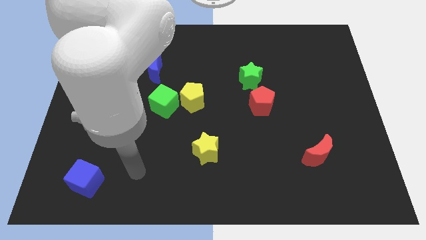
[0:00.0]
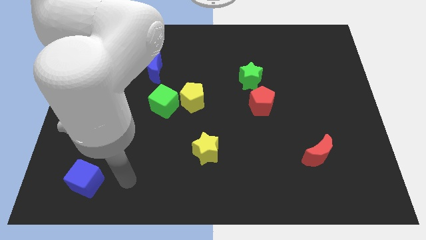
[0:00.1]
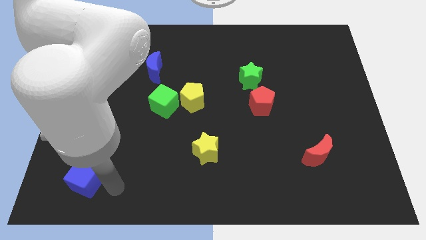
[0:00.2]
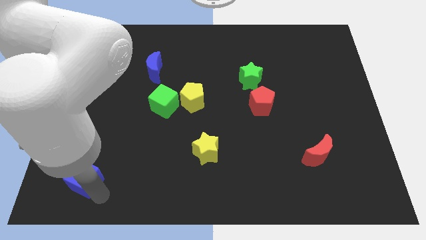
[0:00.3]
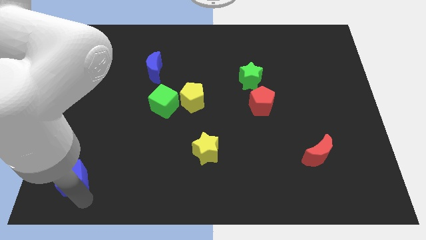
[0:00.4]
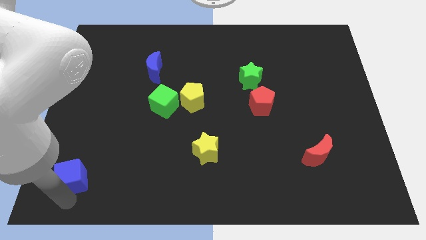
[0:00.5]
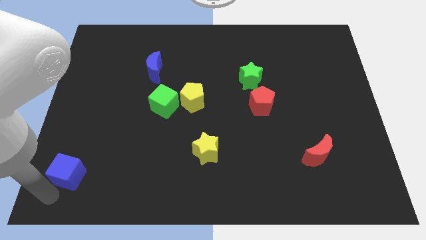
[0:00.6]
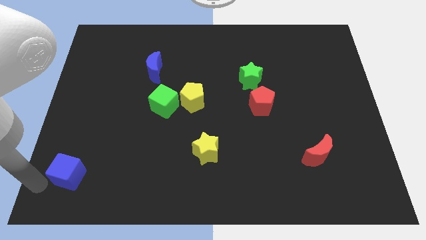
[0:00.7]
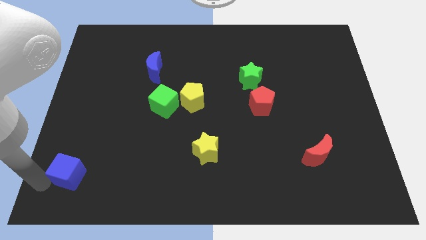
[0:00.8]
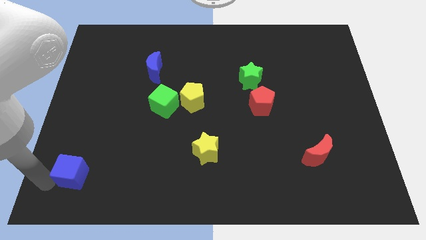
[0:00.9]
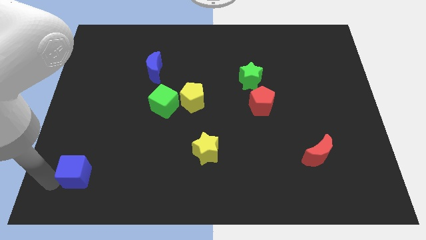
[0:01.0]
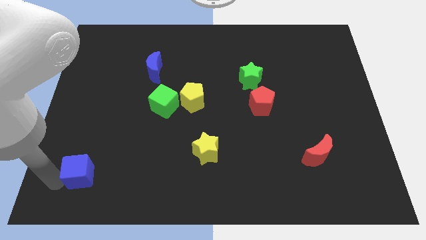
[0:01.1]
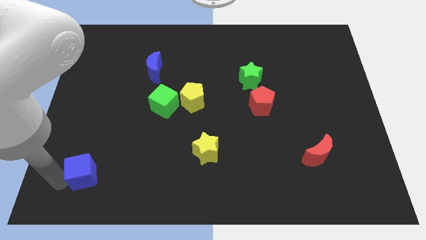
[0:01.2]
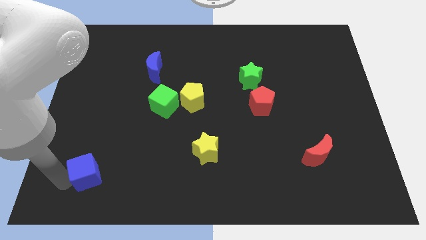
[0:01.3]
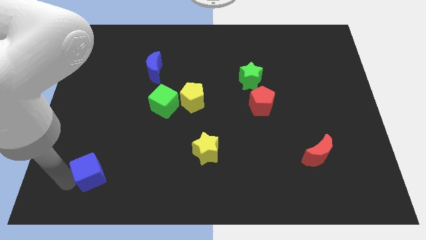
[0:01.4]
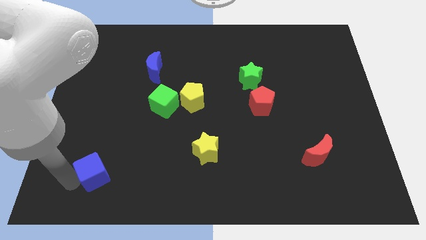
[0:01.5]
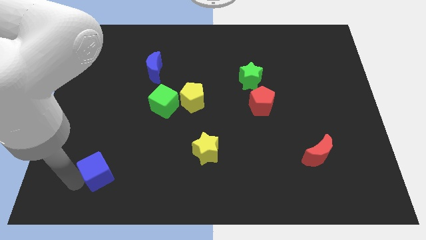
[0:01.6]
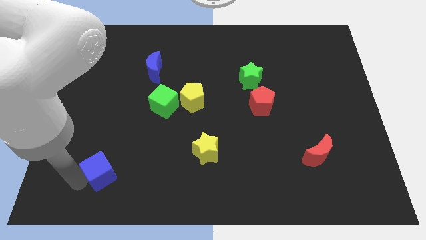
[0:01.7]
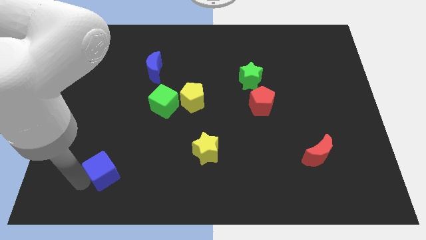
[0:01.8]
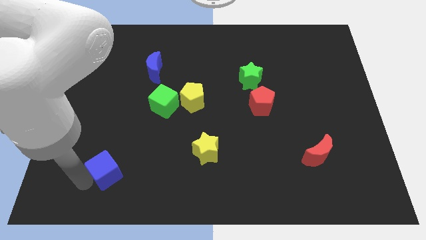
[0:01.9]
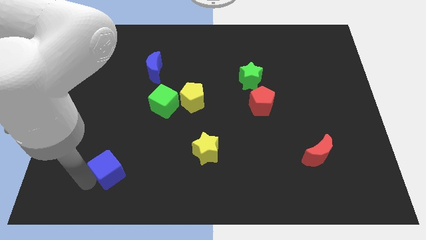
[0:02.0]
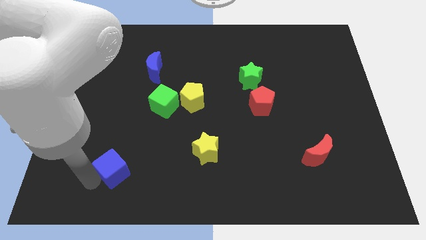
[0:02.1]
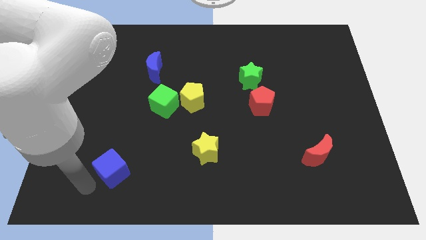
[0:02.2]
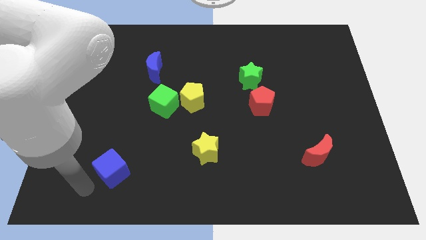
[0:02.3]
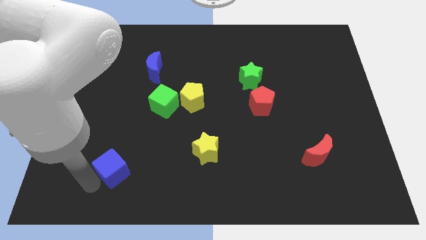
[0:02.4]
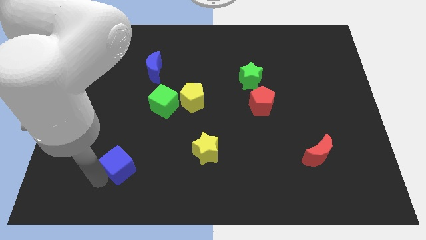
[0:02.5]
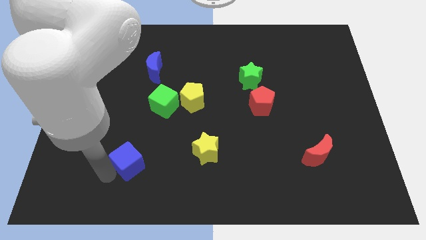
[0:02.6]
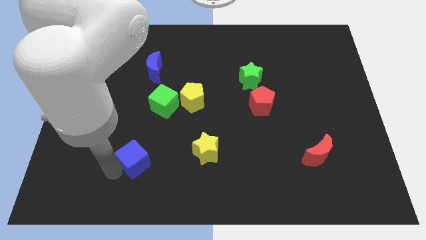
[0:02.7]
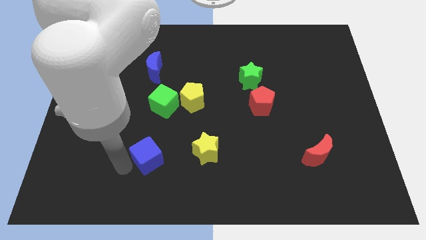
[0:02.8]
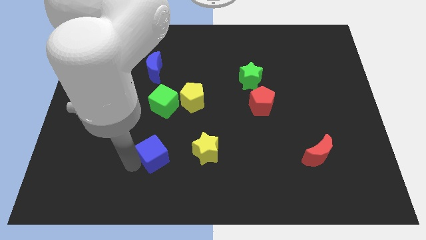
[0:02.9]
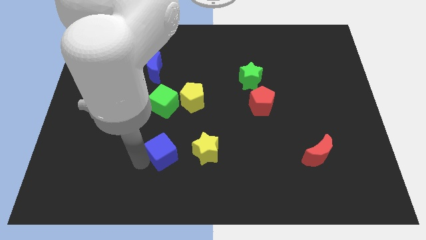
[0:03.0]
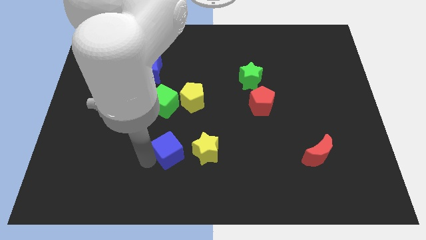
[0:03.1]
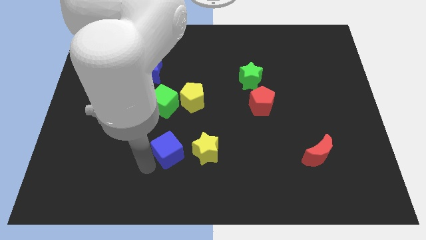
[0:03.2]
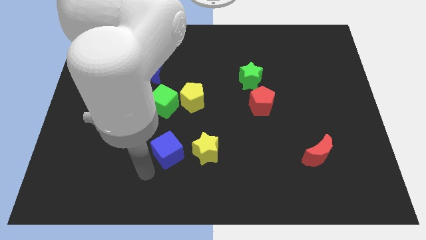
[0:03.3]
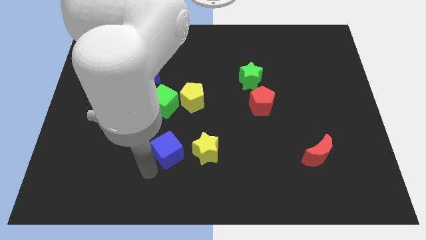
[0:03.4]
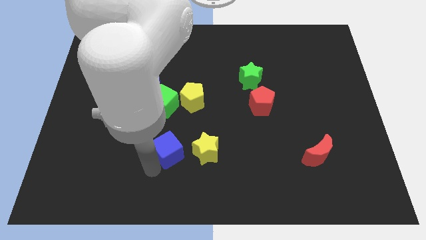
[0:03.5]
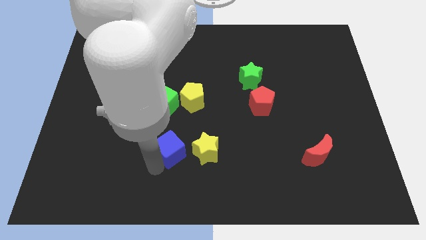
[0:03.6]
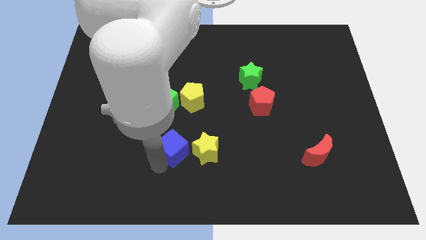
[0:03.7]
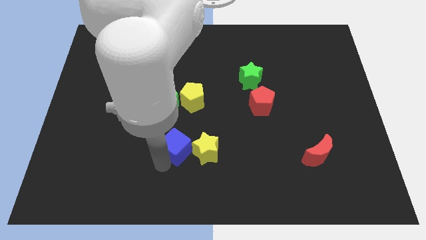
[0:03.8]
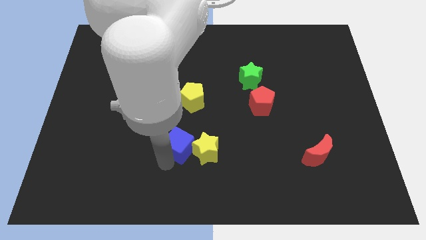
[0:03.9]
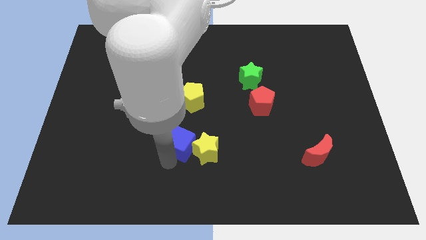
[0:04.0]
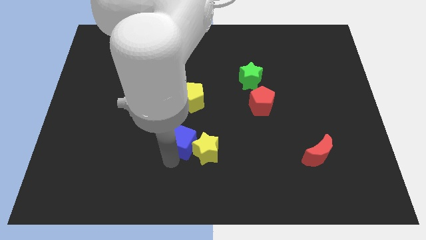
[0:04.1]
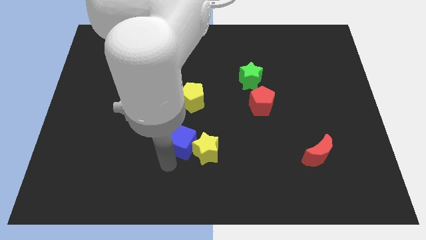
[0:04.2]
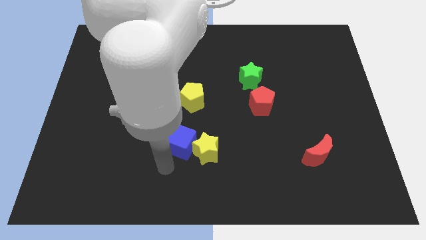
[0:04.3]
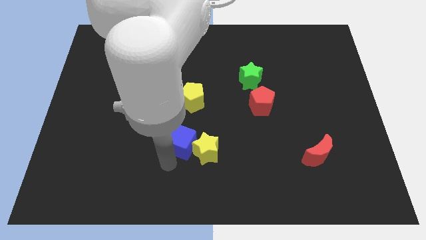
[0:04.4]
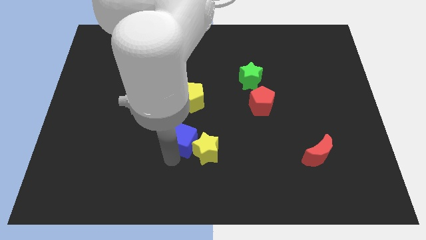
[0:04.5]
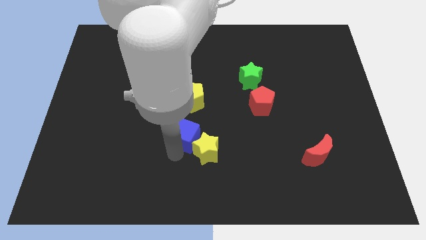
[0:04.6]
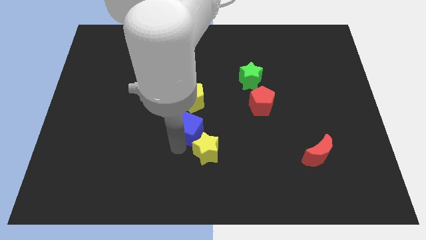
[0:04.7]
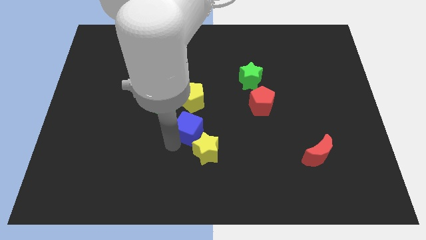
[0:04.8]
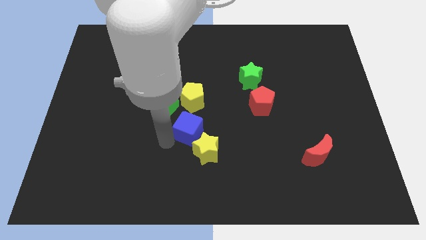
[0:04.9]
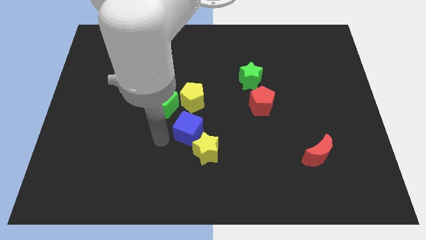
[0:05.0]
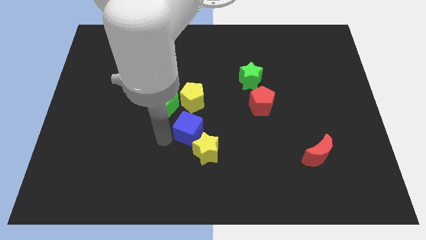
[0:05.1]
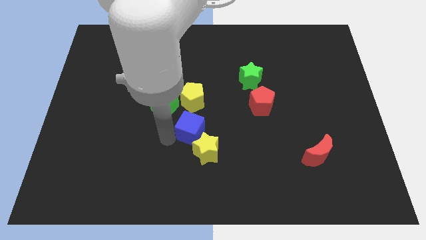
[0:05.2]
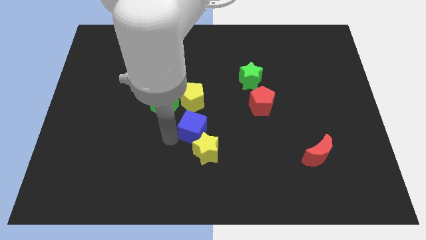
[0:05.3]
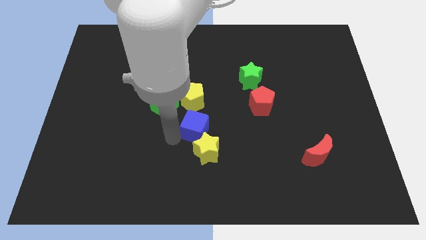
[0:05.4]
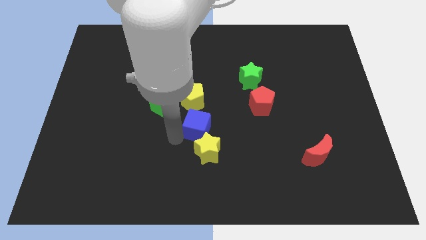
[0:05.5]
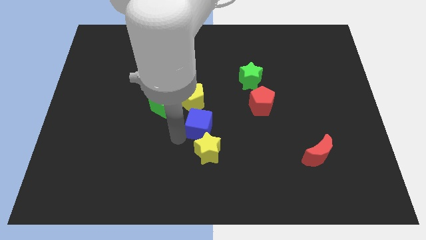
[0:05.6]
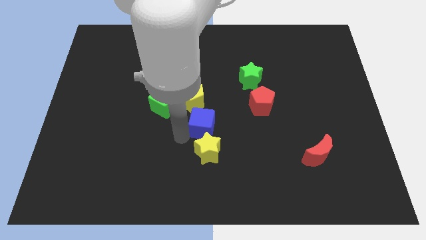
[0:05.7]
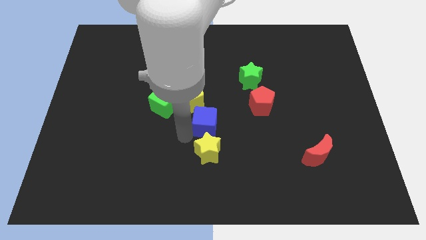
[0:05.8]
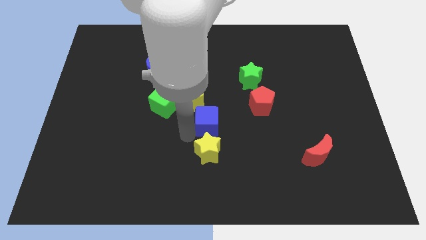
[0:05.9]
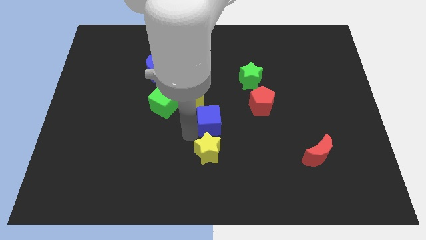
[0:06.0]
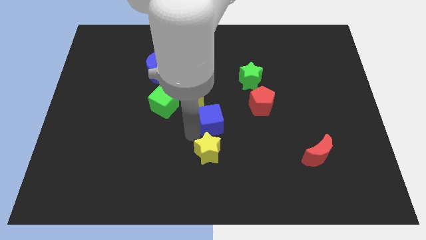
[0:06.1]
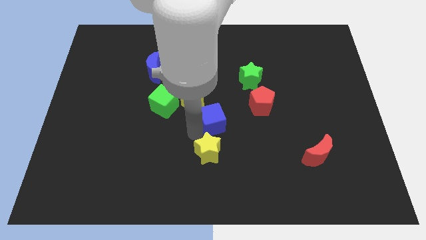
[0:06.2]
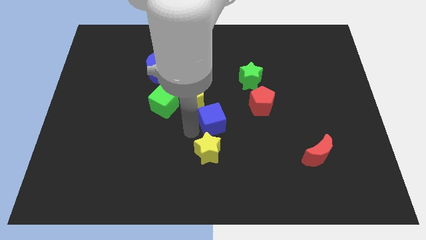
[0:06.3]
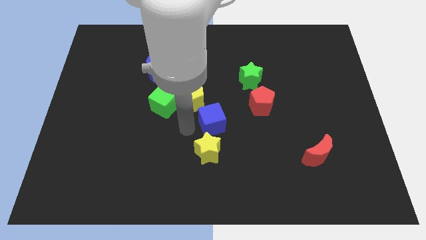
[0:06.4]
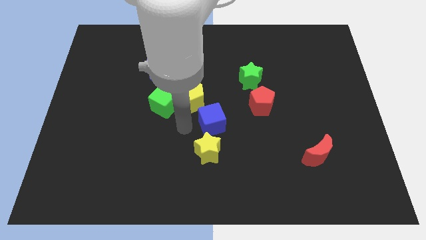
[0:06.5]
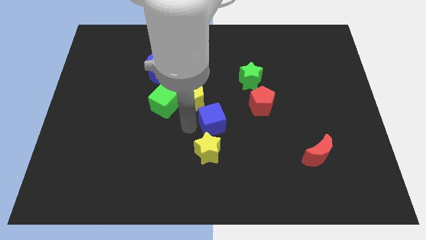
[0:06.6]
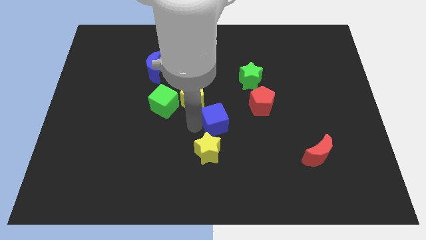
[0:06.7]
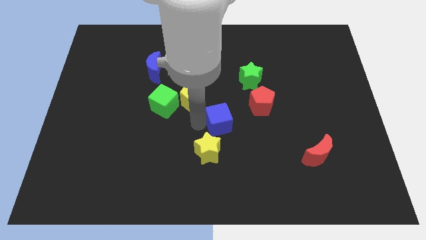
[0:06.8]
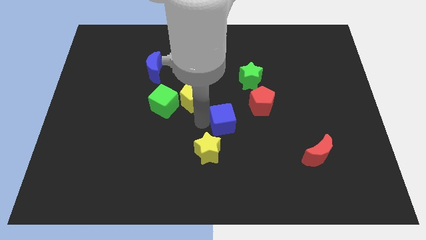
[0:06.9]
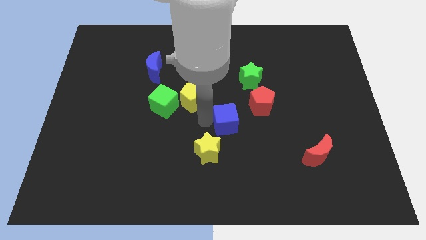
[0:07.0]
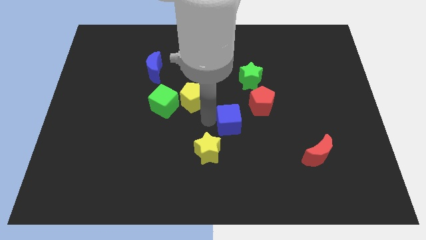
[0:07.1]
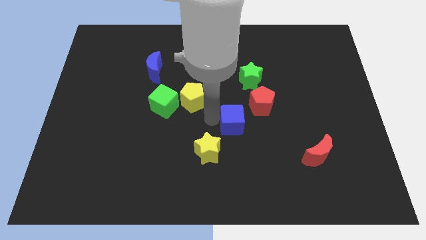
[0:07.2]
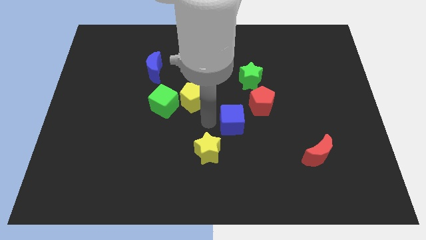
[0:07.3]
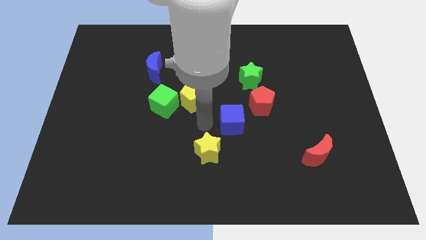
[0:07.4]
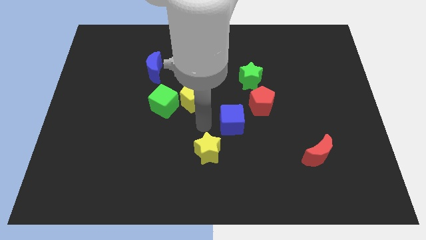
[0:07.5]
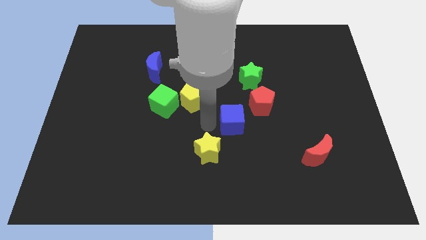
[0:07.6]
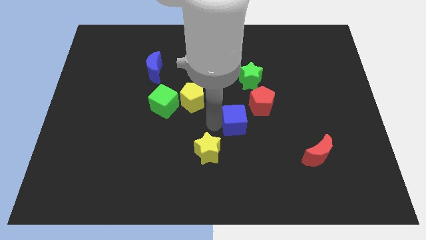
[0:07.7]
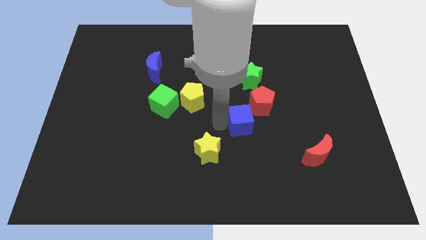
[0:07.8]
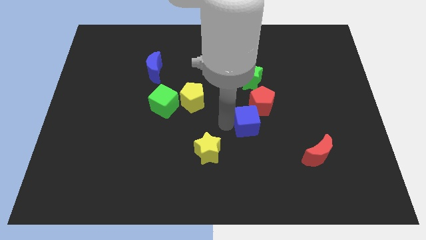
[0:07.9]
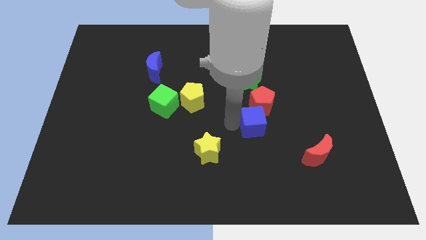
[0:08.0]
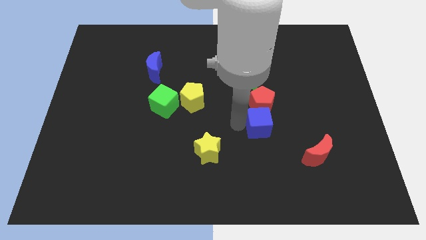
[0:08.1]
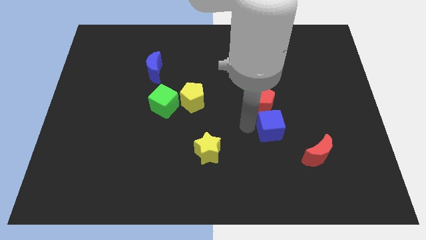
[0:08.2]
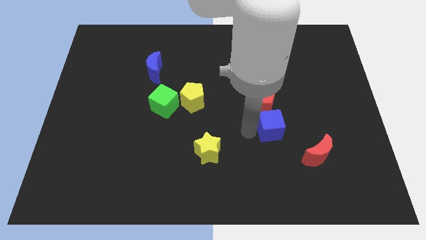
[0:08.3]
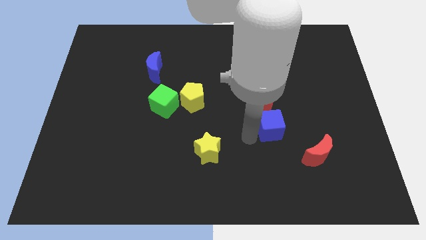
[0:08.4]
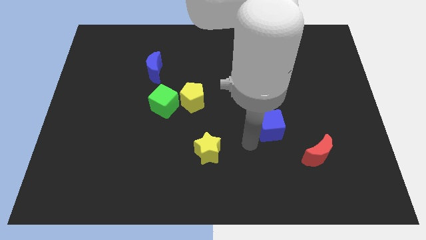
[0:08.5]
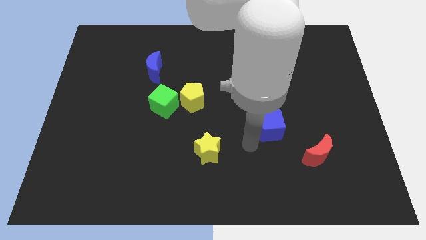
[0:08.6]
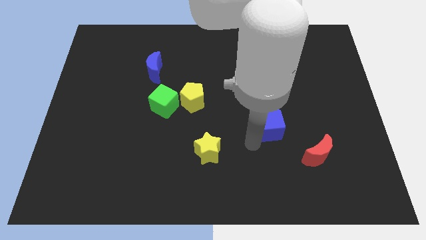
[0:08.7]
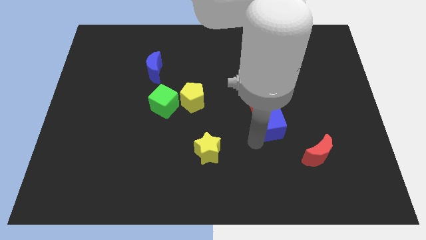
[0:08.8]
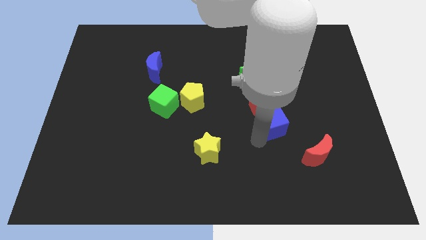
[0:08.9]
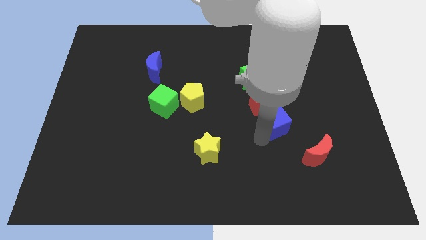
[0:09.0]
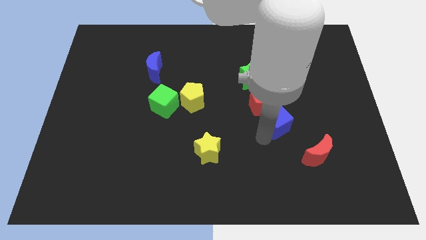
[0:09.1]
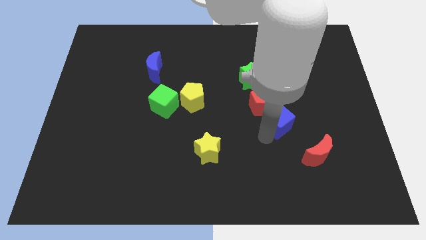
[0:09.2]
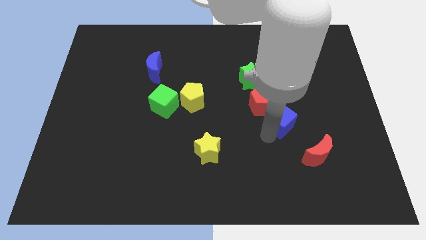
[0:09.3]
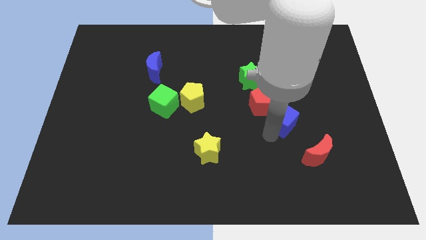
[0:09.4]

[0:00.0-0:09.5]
move the blue cube right of the red pentagon
